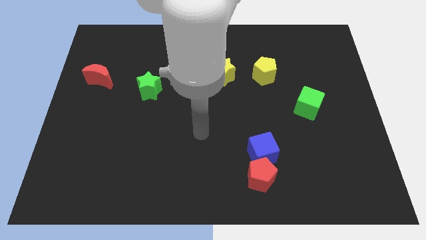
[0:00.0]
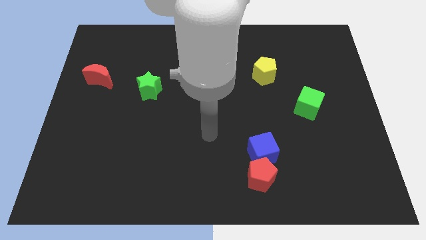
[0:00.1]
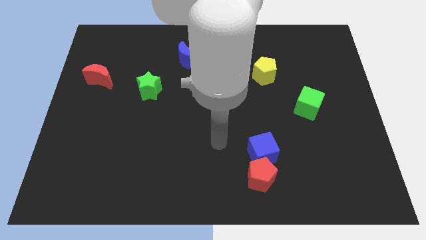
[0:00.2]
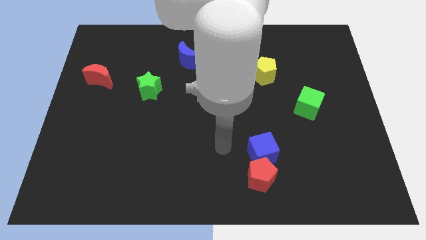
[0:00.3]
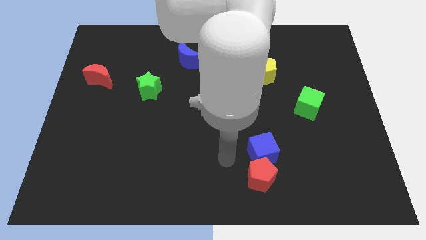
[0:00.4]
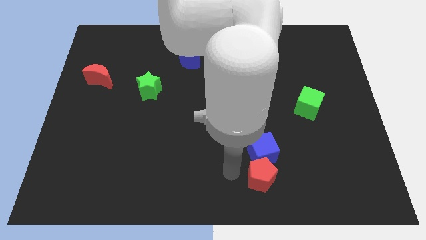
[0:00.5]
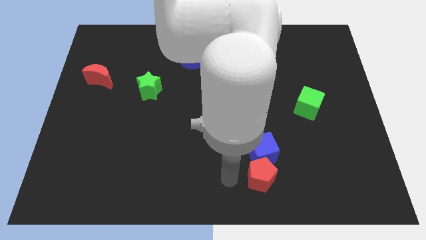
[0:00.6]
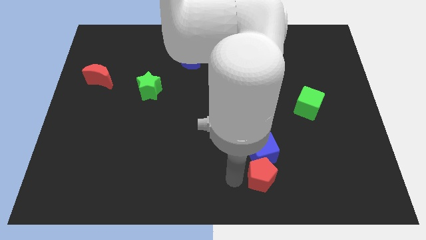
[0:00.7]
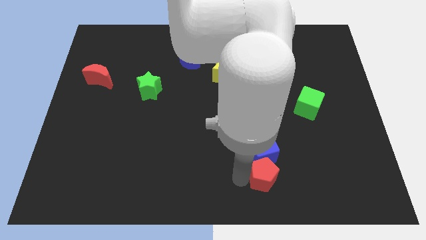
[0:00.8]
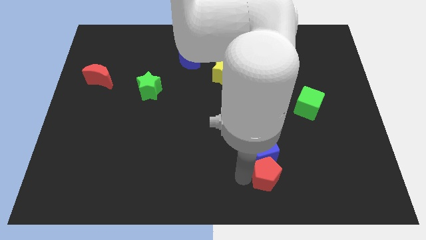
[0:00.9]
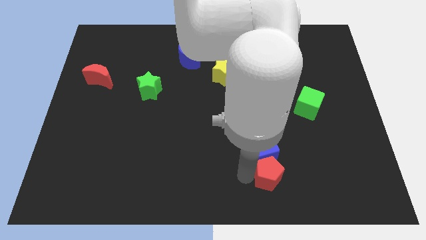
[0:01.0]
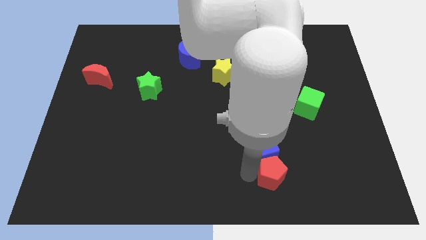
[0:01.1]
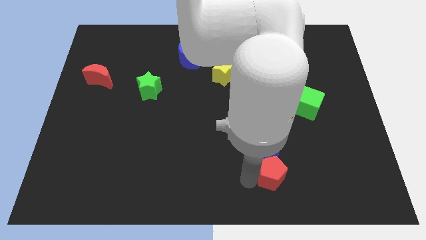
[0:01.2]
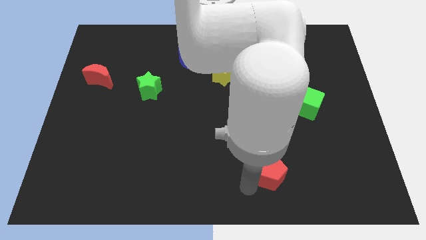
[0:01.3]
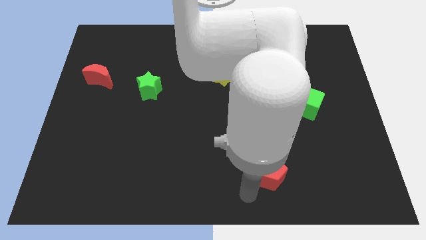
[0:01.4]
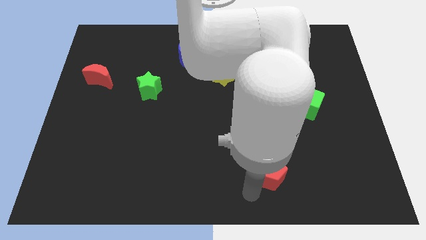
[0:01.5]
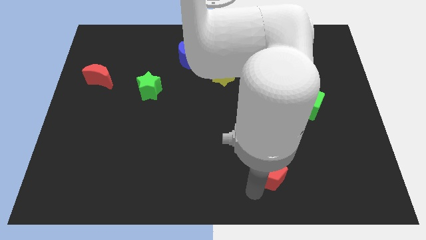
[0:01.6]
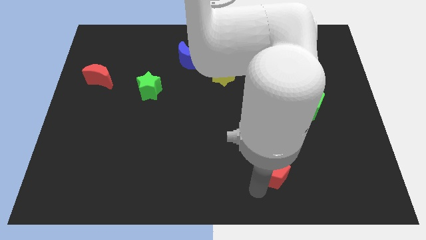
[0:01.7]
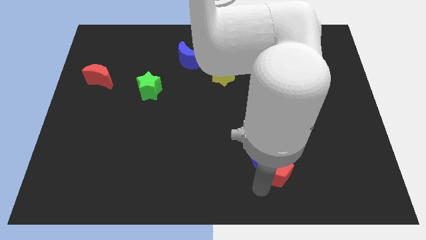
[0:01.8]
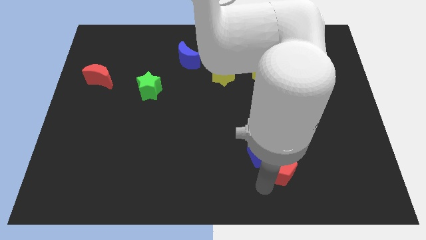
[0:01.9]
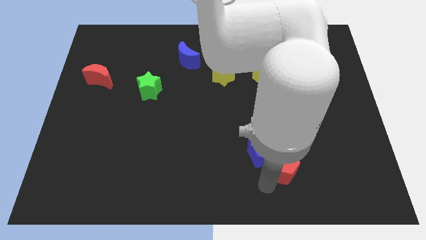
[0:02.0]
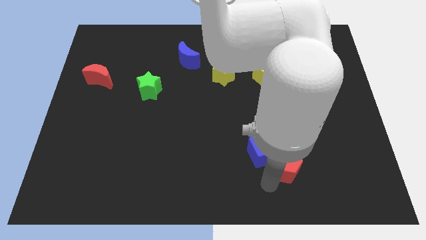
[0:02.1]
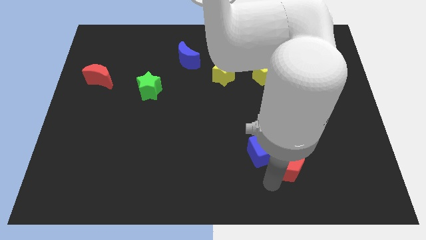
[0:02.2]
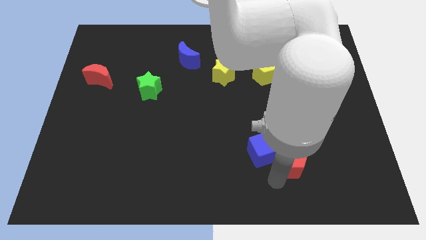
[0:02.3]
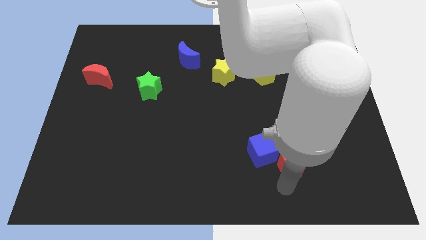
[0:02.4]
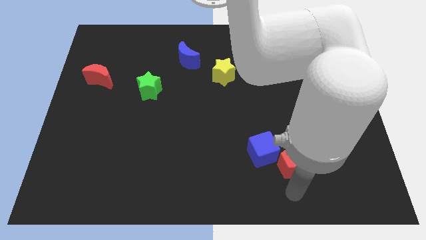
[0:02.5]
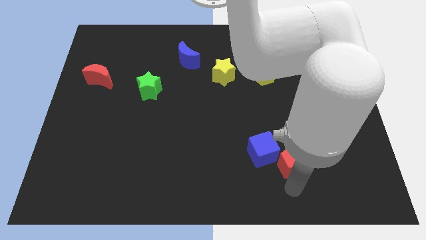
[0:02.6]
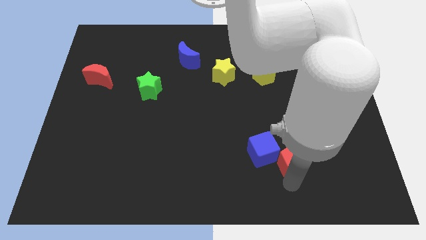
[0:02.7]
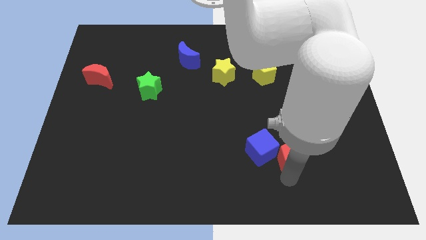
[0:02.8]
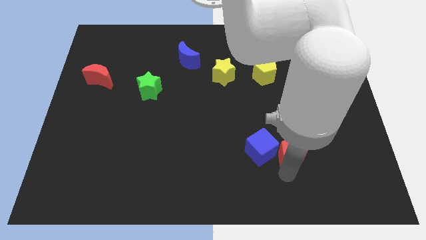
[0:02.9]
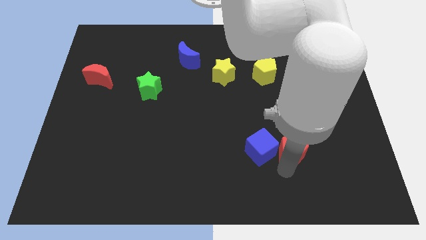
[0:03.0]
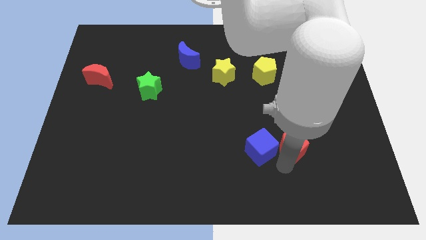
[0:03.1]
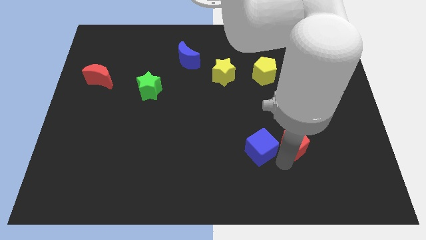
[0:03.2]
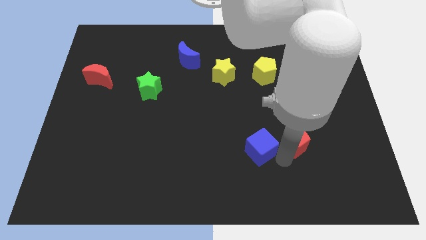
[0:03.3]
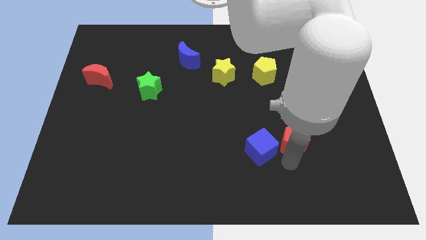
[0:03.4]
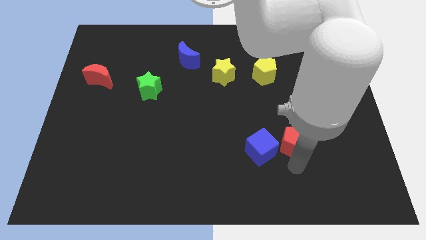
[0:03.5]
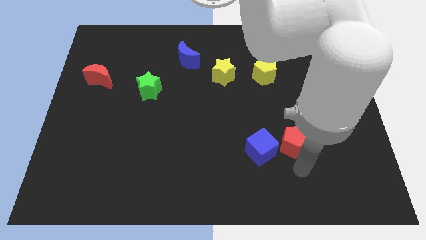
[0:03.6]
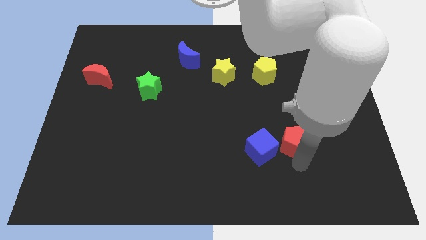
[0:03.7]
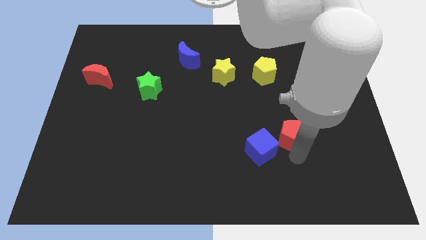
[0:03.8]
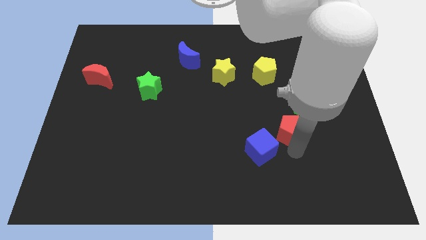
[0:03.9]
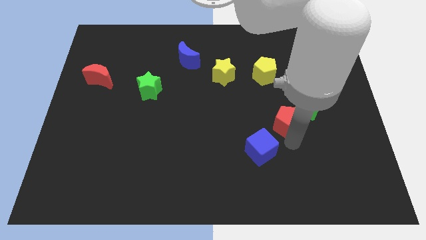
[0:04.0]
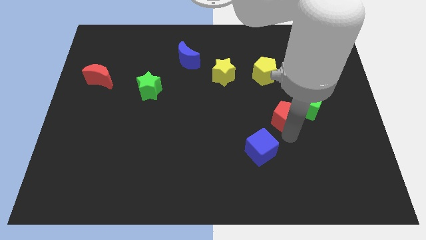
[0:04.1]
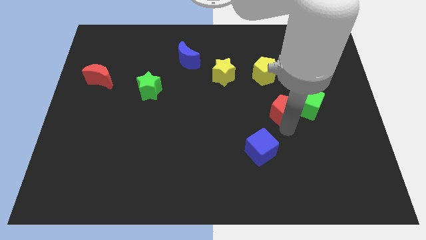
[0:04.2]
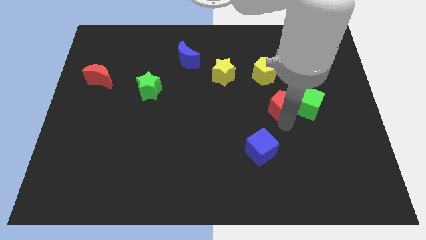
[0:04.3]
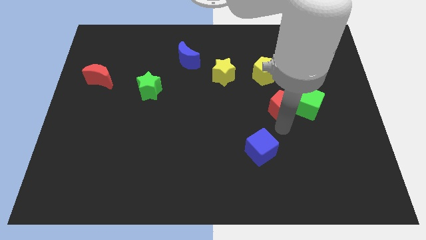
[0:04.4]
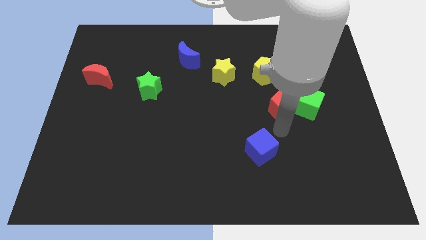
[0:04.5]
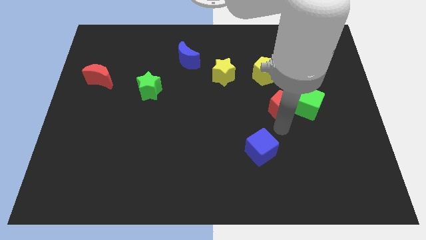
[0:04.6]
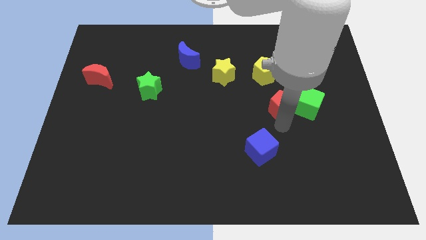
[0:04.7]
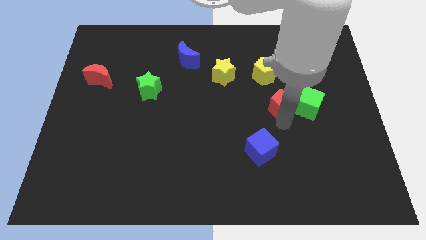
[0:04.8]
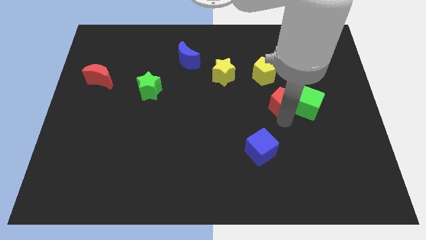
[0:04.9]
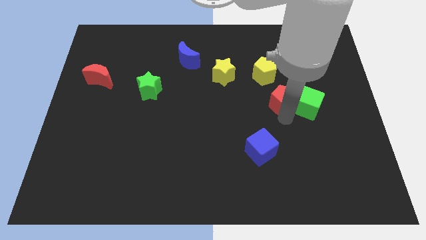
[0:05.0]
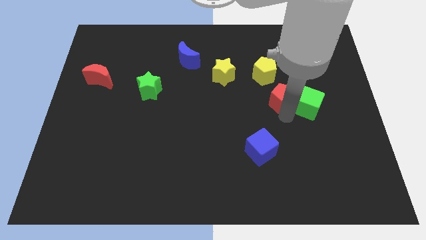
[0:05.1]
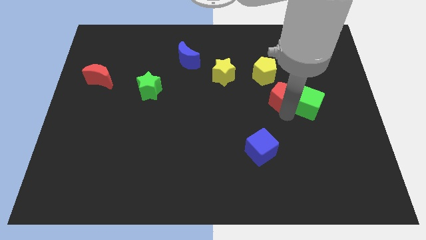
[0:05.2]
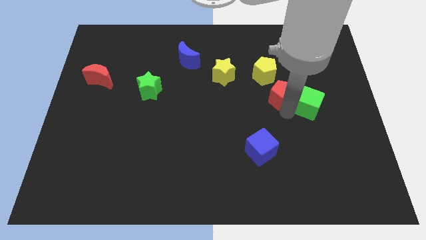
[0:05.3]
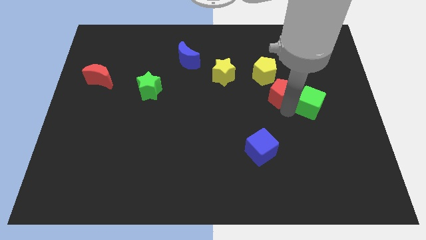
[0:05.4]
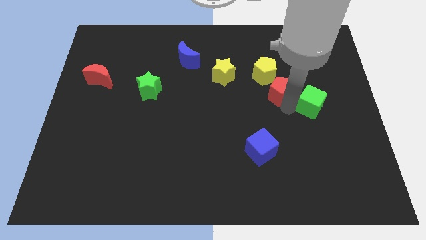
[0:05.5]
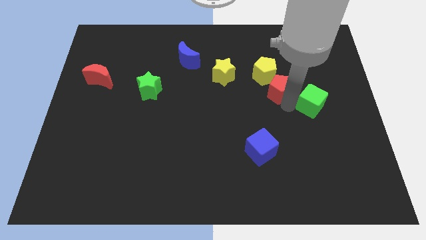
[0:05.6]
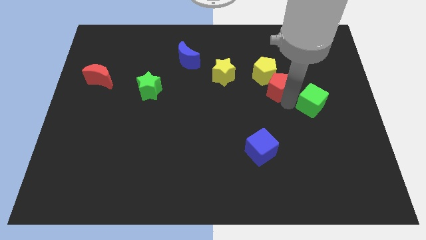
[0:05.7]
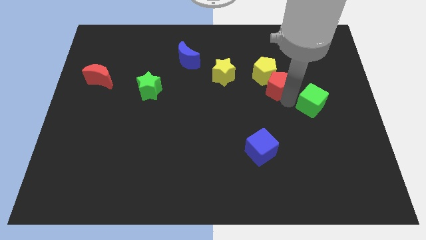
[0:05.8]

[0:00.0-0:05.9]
slide the red pentagon right of the yellow star

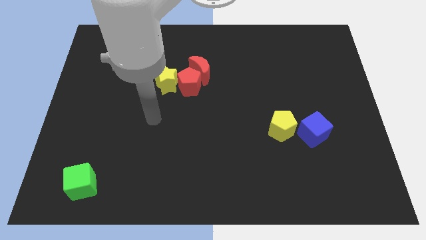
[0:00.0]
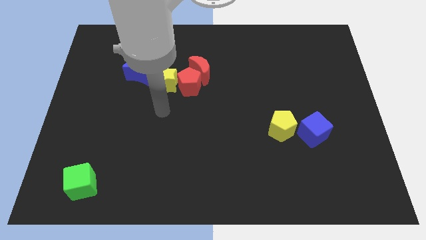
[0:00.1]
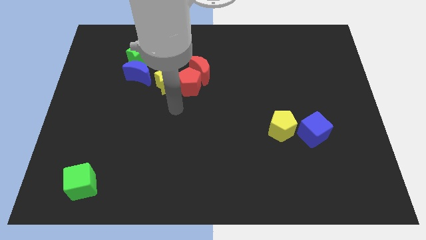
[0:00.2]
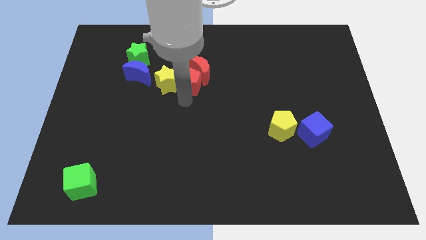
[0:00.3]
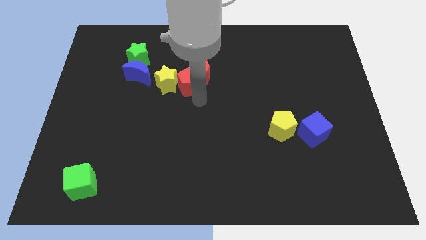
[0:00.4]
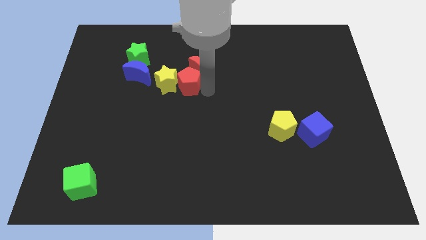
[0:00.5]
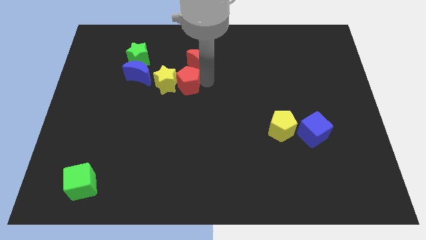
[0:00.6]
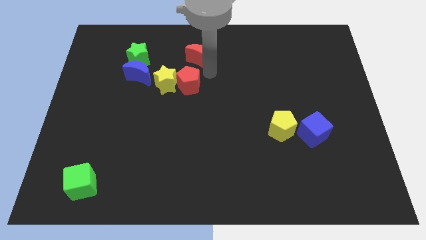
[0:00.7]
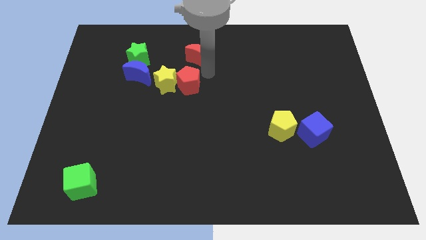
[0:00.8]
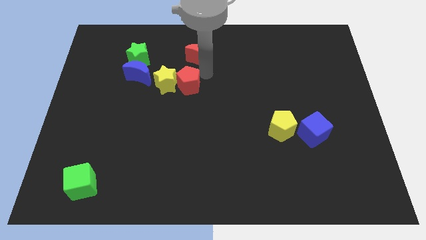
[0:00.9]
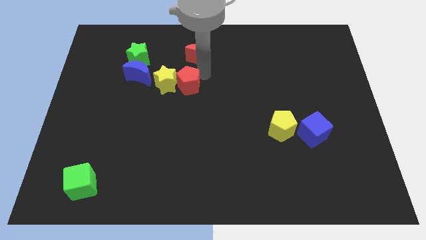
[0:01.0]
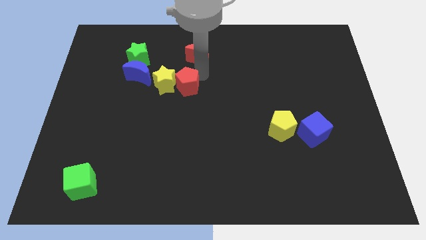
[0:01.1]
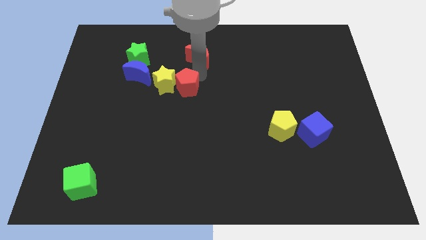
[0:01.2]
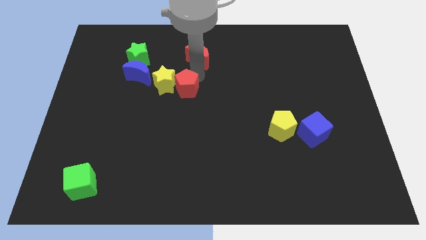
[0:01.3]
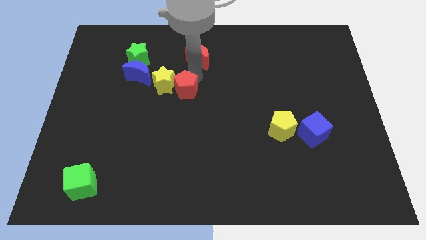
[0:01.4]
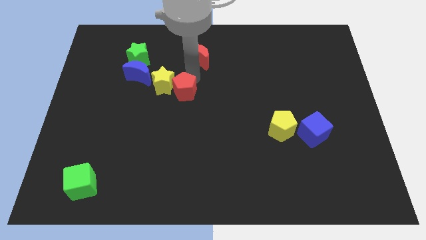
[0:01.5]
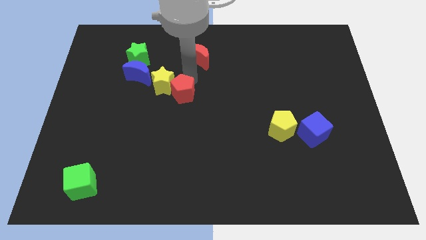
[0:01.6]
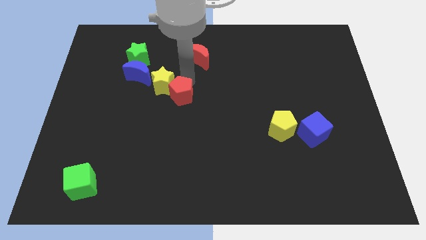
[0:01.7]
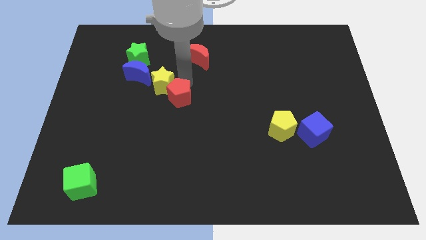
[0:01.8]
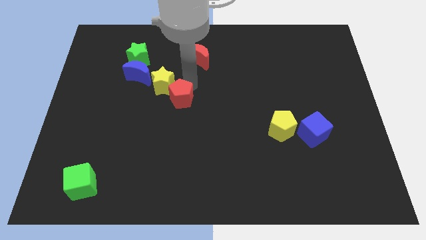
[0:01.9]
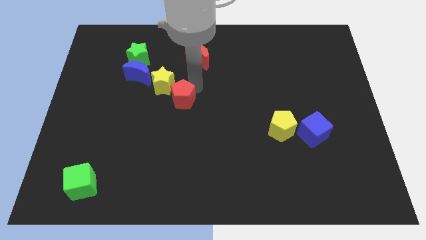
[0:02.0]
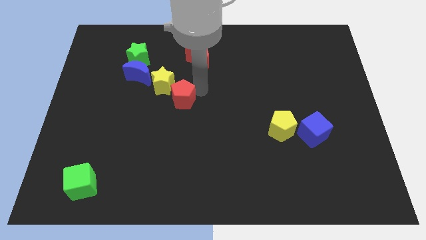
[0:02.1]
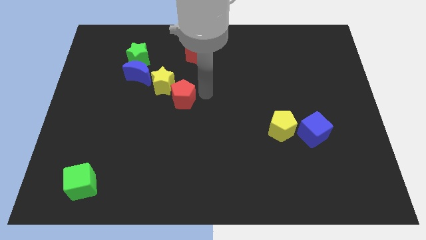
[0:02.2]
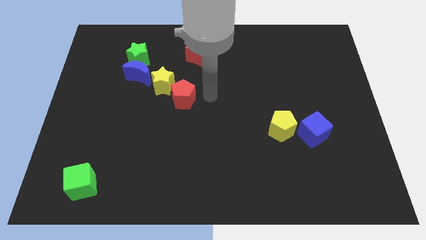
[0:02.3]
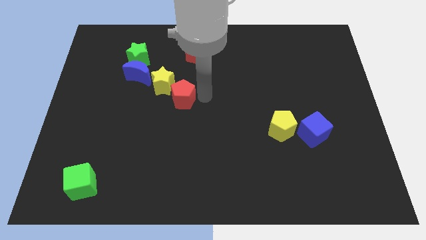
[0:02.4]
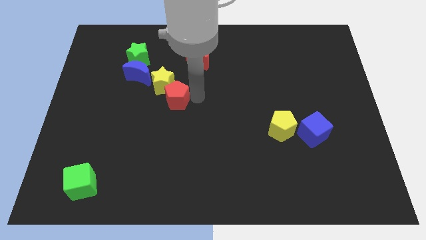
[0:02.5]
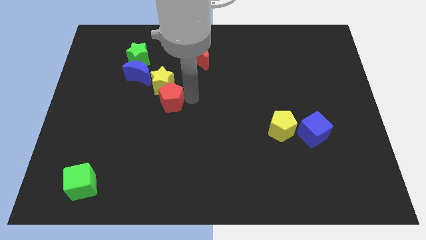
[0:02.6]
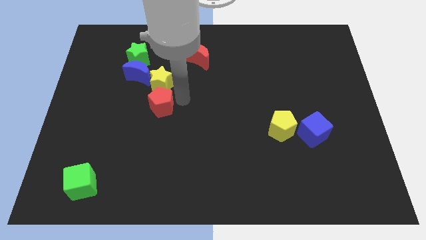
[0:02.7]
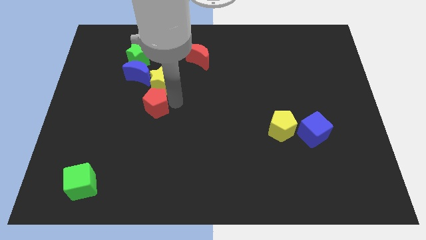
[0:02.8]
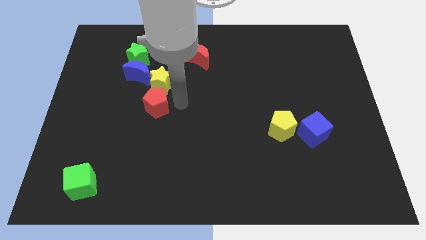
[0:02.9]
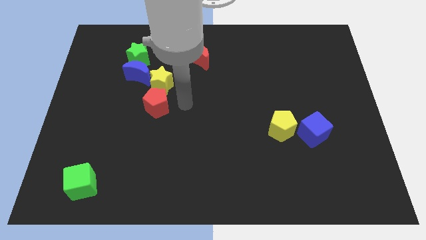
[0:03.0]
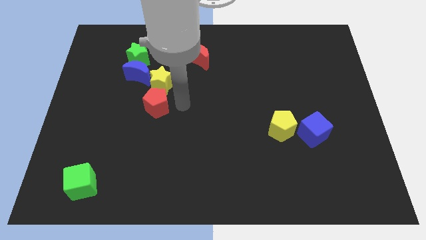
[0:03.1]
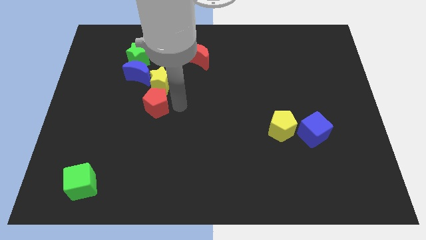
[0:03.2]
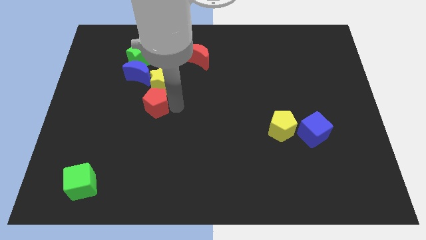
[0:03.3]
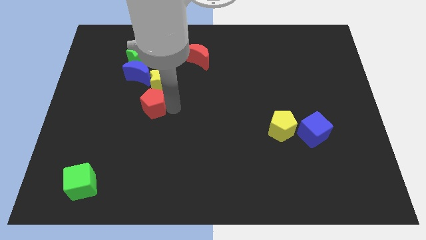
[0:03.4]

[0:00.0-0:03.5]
slide the red pentagon below the blue moon
